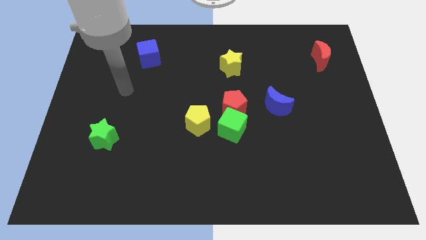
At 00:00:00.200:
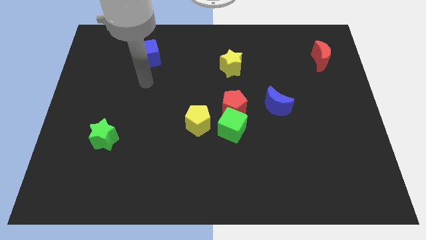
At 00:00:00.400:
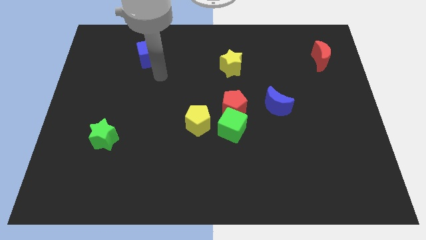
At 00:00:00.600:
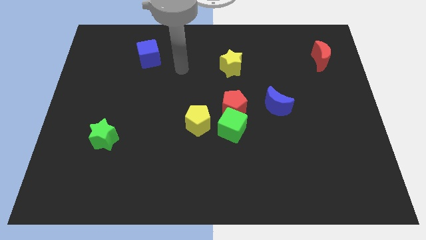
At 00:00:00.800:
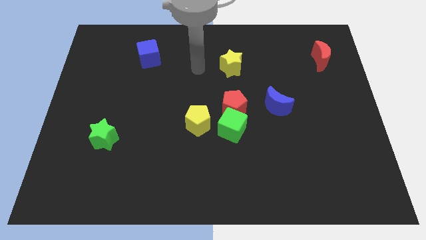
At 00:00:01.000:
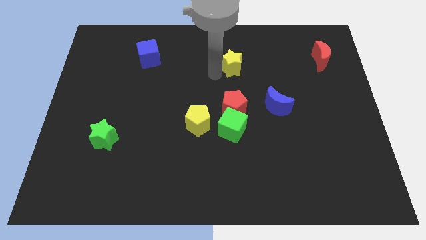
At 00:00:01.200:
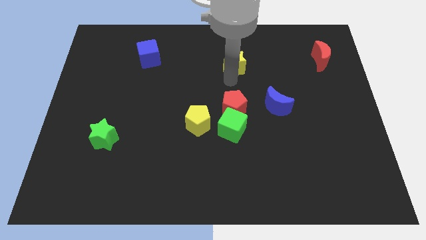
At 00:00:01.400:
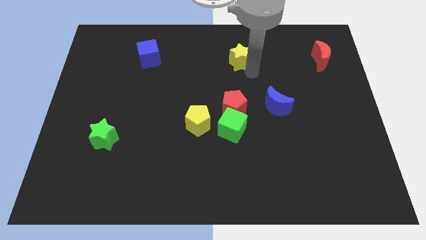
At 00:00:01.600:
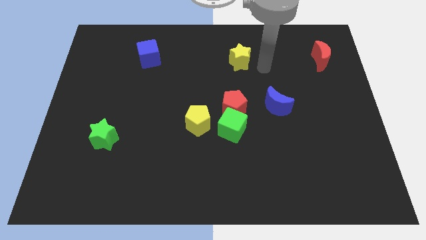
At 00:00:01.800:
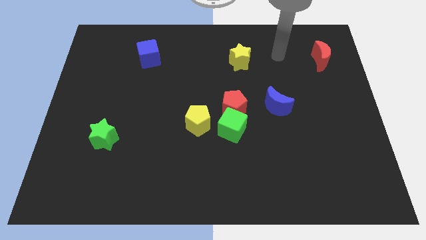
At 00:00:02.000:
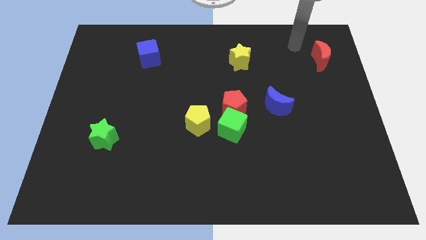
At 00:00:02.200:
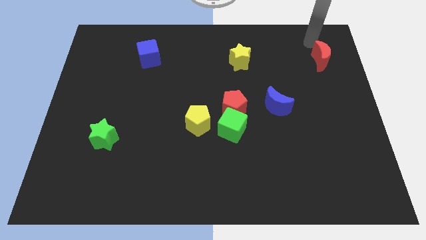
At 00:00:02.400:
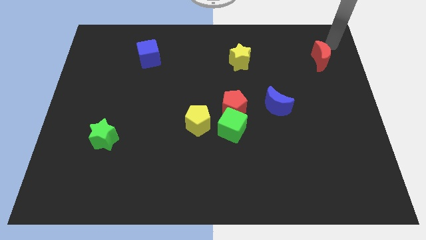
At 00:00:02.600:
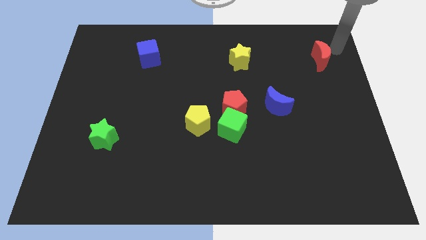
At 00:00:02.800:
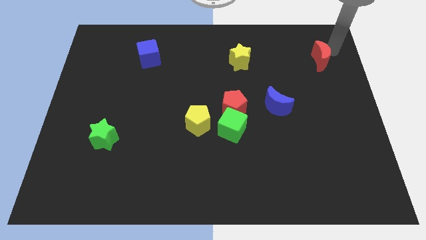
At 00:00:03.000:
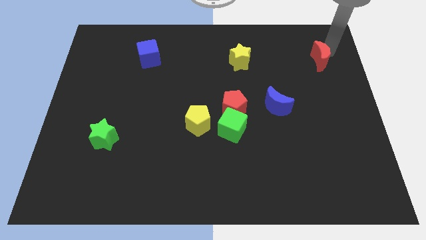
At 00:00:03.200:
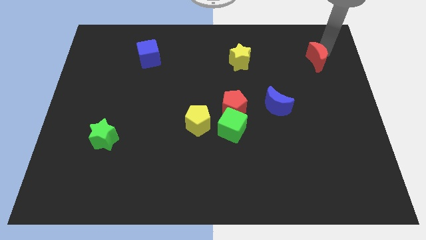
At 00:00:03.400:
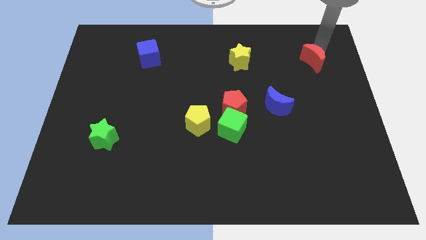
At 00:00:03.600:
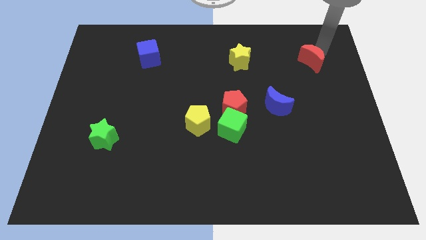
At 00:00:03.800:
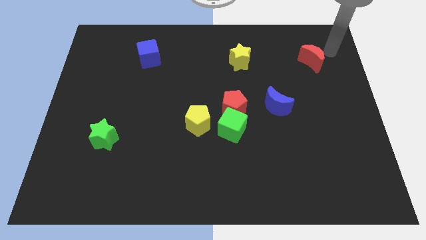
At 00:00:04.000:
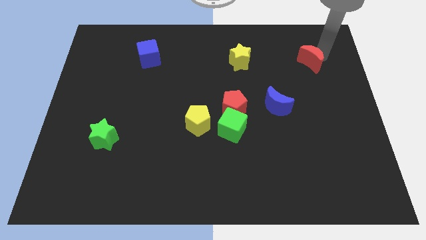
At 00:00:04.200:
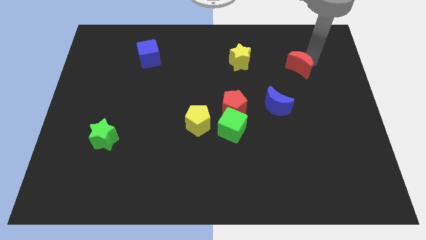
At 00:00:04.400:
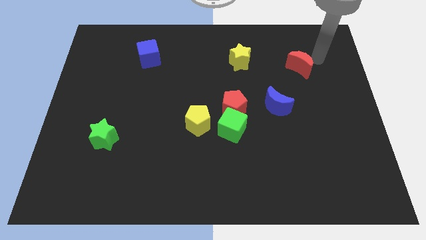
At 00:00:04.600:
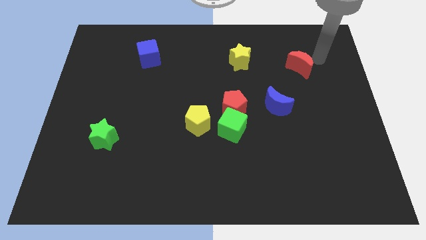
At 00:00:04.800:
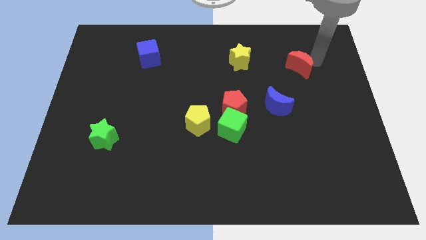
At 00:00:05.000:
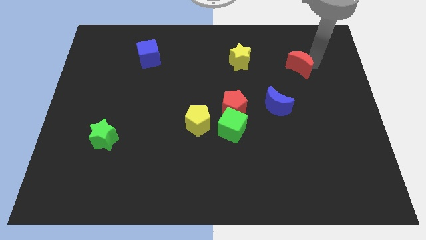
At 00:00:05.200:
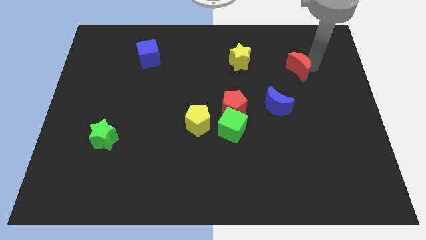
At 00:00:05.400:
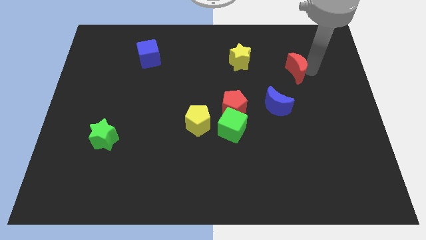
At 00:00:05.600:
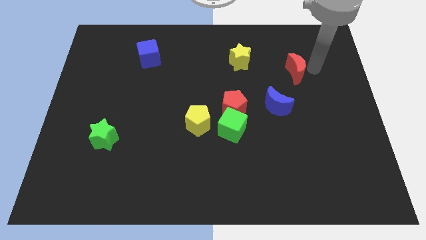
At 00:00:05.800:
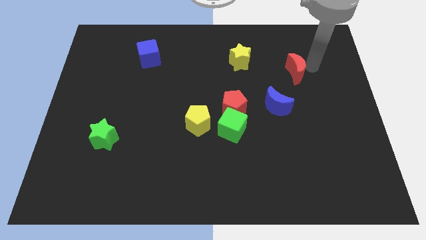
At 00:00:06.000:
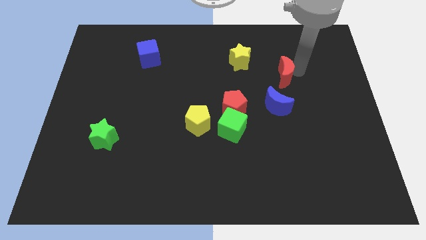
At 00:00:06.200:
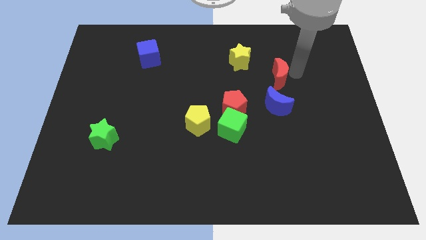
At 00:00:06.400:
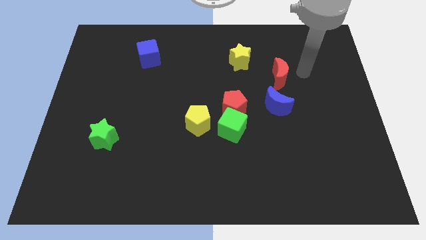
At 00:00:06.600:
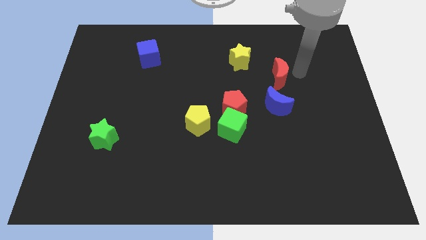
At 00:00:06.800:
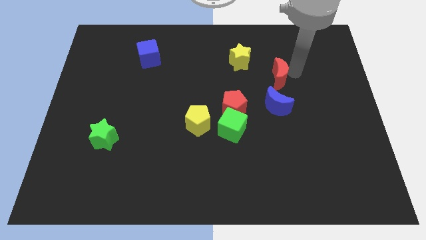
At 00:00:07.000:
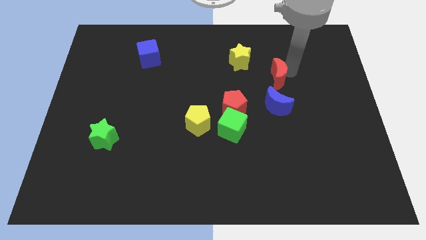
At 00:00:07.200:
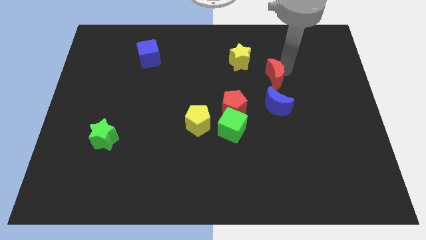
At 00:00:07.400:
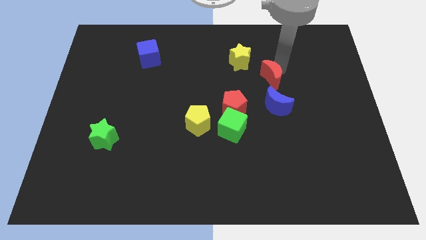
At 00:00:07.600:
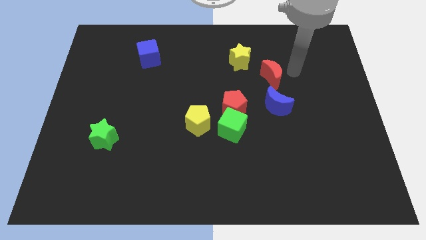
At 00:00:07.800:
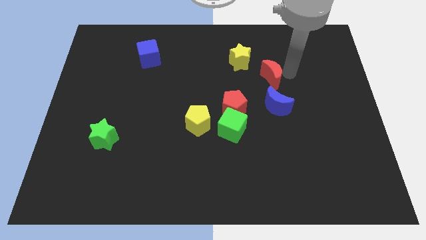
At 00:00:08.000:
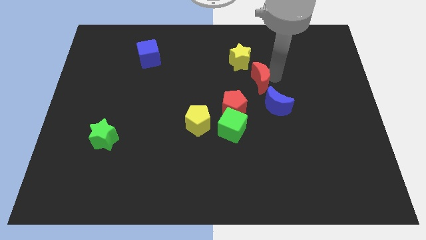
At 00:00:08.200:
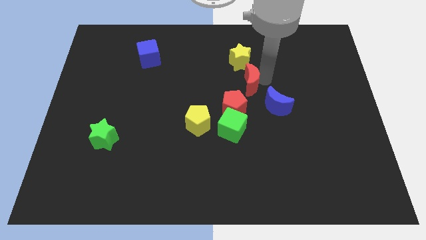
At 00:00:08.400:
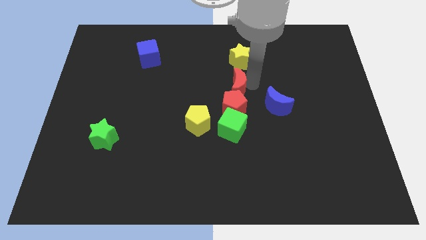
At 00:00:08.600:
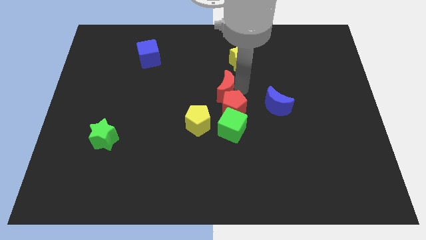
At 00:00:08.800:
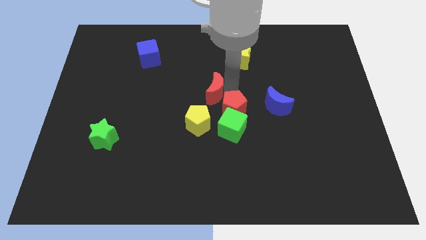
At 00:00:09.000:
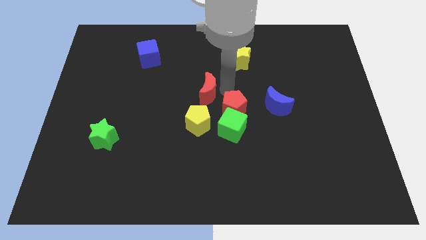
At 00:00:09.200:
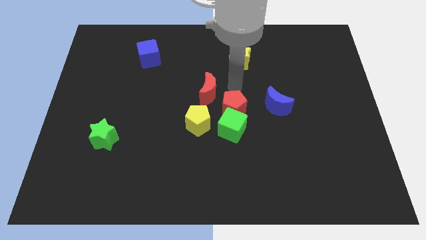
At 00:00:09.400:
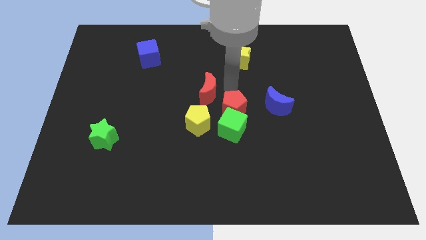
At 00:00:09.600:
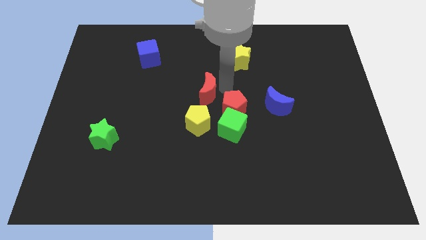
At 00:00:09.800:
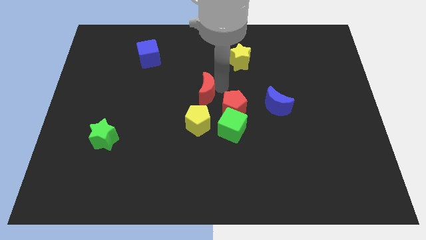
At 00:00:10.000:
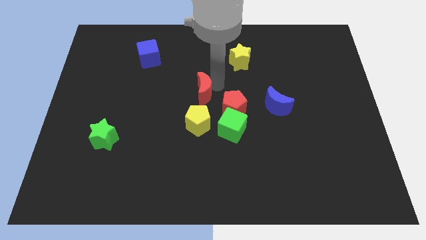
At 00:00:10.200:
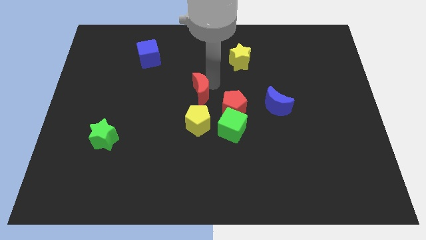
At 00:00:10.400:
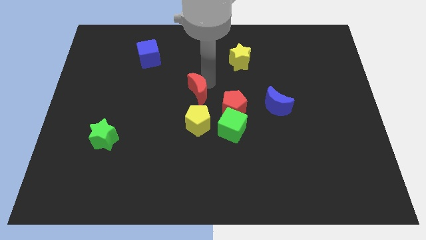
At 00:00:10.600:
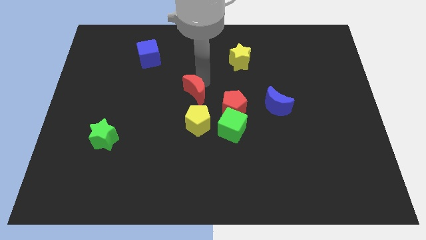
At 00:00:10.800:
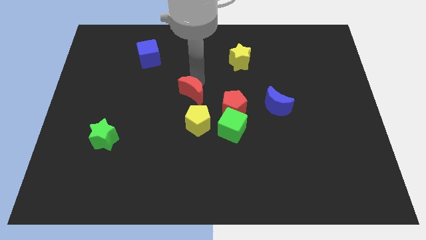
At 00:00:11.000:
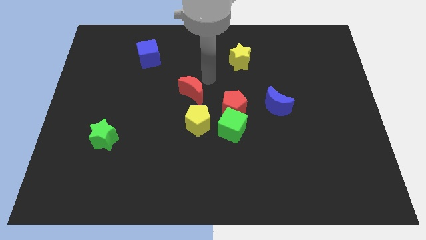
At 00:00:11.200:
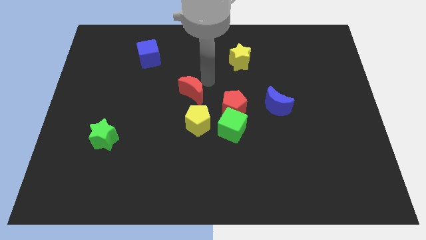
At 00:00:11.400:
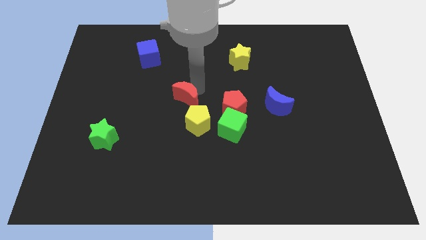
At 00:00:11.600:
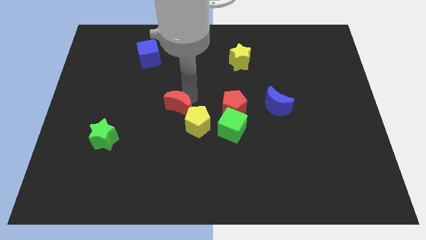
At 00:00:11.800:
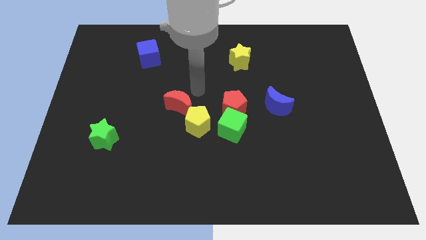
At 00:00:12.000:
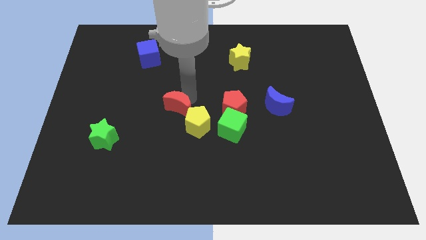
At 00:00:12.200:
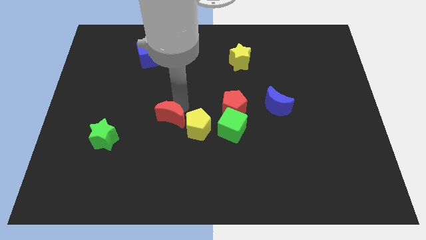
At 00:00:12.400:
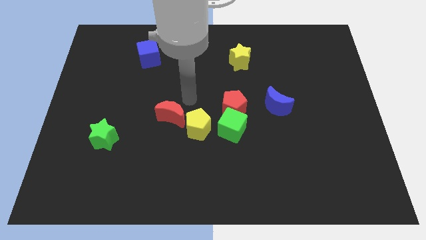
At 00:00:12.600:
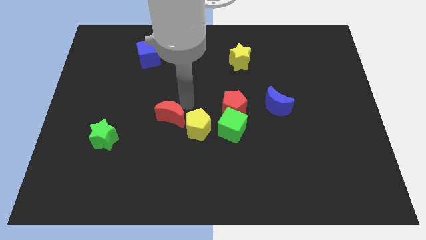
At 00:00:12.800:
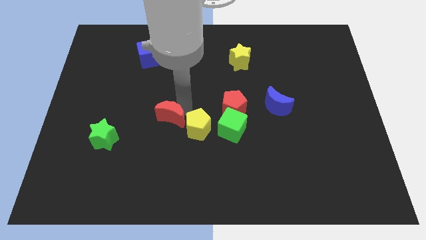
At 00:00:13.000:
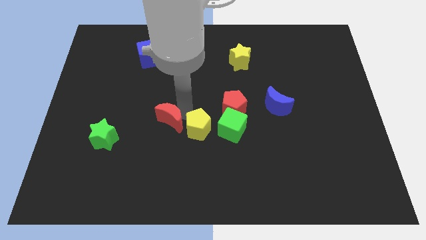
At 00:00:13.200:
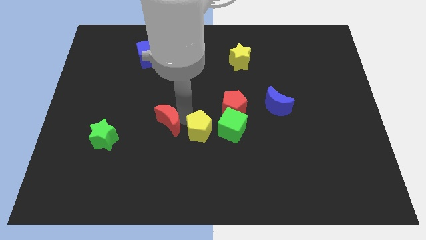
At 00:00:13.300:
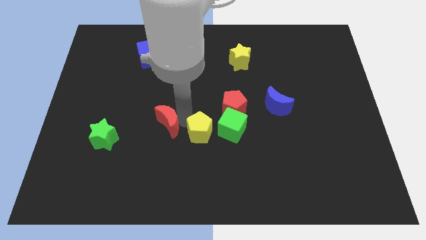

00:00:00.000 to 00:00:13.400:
slide the red moon right of the green star
